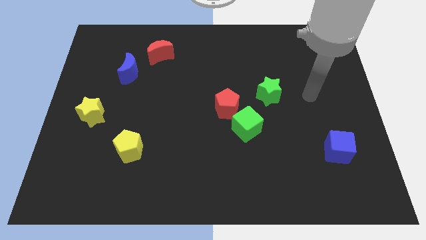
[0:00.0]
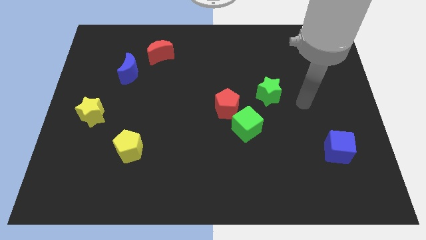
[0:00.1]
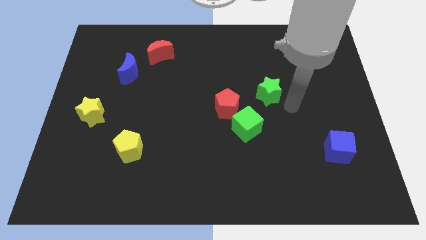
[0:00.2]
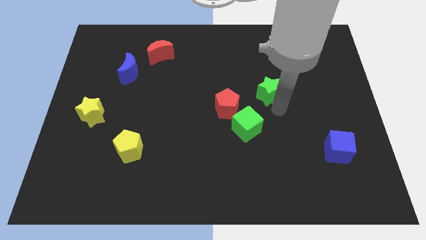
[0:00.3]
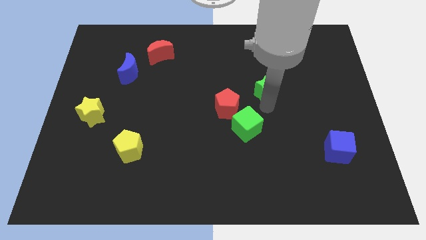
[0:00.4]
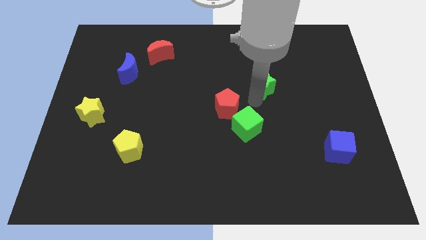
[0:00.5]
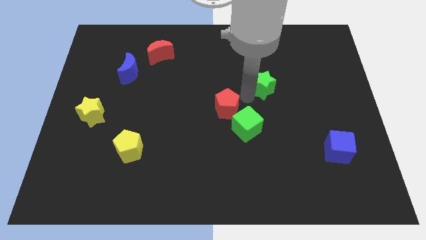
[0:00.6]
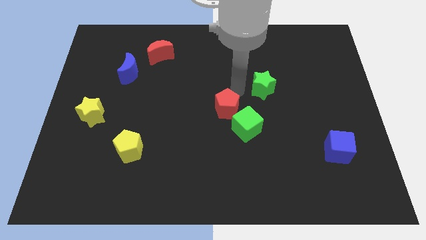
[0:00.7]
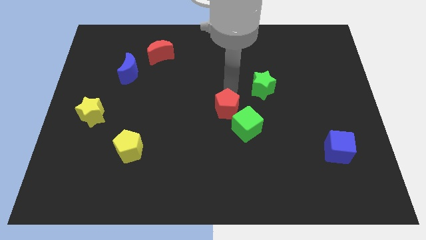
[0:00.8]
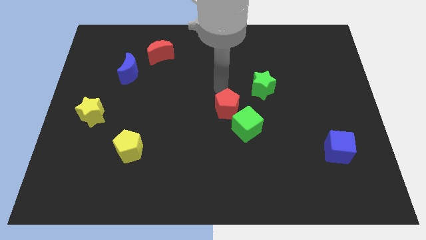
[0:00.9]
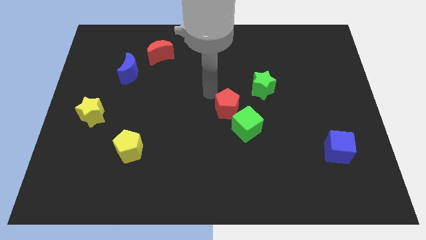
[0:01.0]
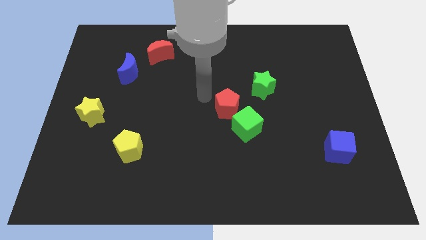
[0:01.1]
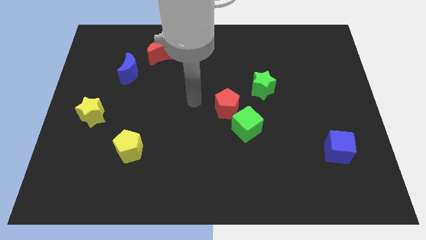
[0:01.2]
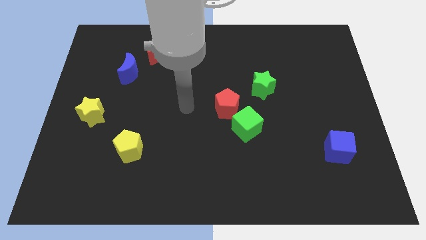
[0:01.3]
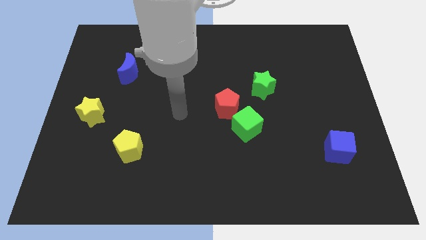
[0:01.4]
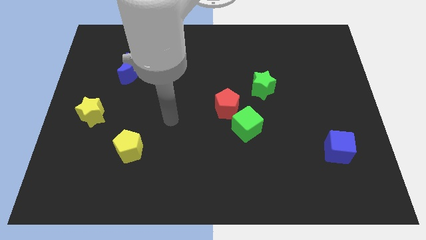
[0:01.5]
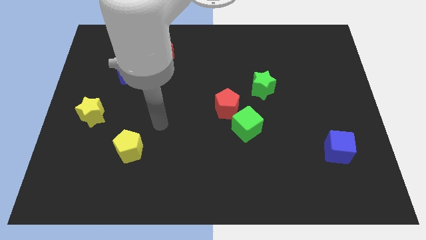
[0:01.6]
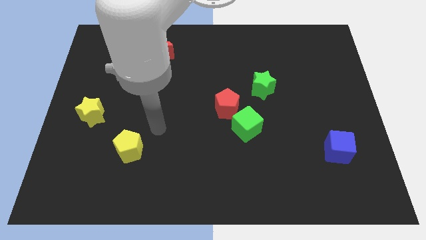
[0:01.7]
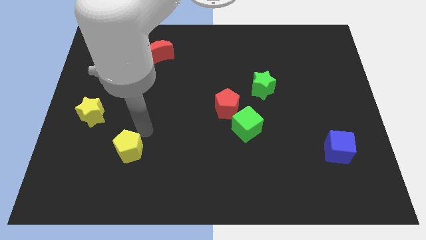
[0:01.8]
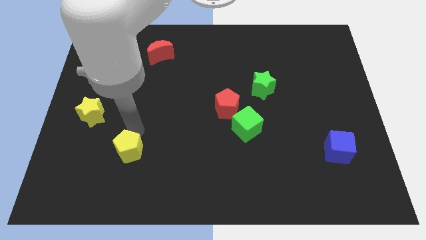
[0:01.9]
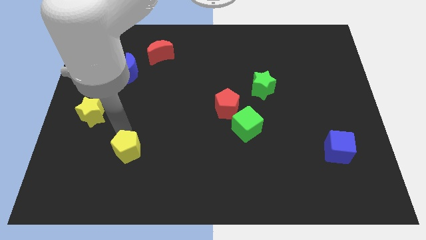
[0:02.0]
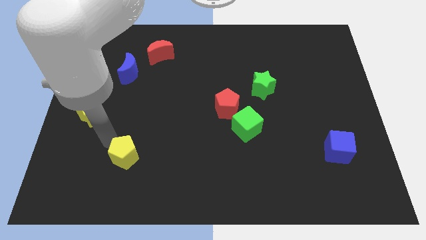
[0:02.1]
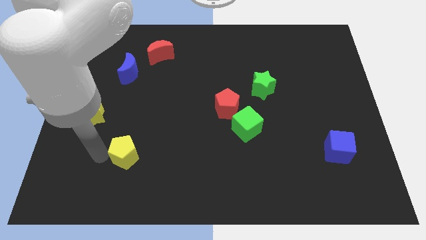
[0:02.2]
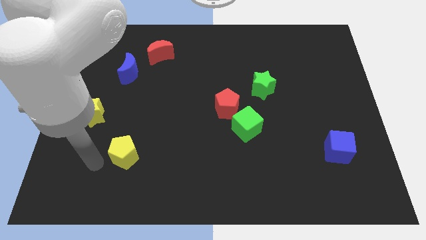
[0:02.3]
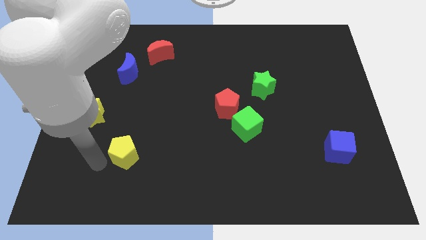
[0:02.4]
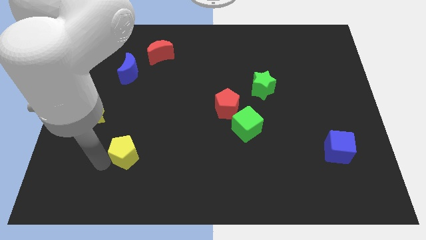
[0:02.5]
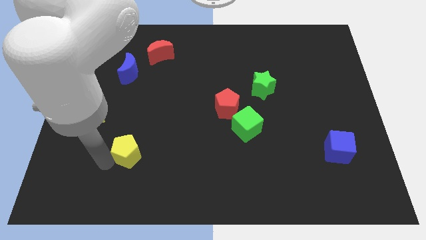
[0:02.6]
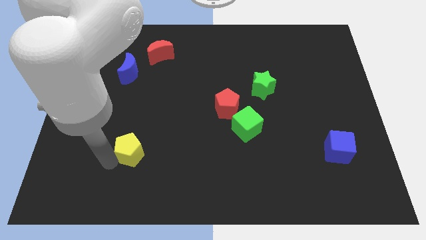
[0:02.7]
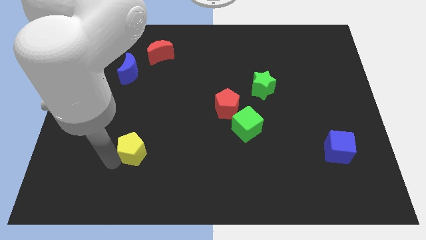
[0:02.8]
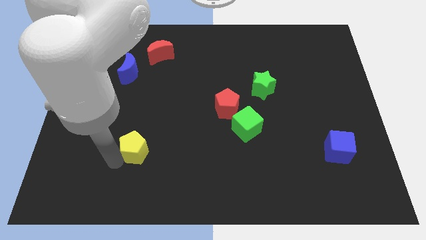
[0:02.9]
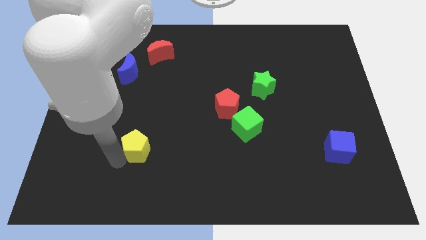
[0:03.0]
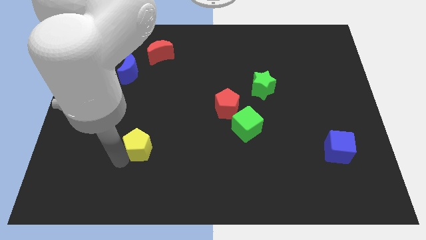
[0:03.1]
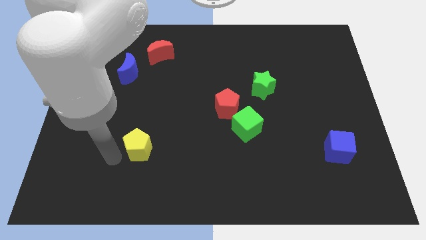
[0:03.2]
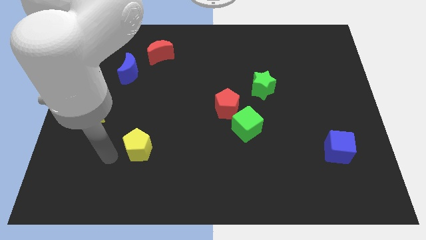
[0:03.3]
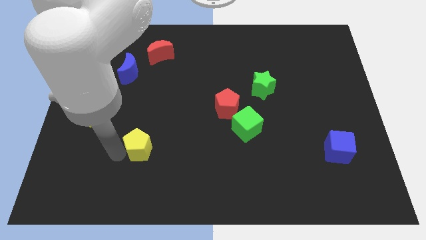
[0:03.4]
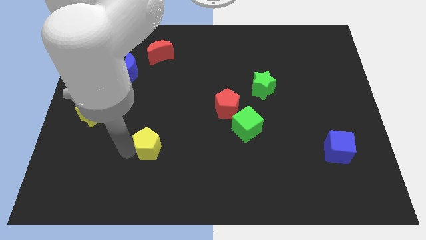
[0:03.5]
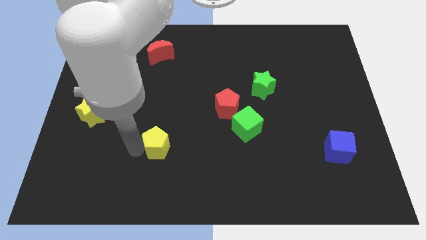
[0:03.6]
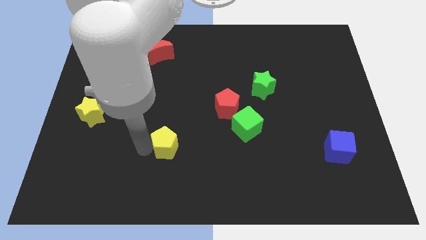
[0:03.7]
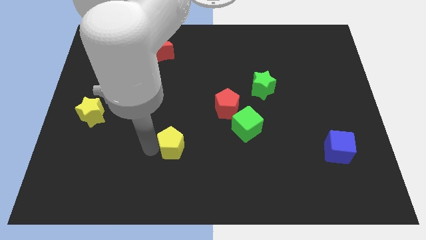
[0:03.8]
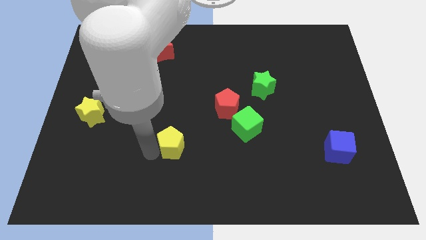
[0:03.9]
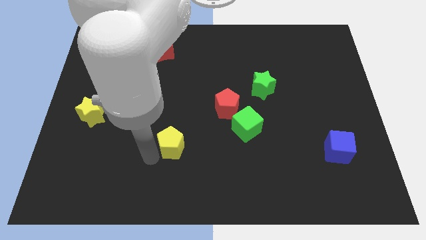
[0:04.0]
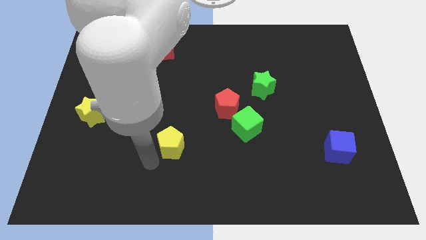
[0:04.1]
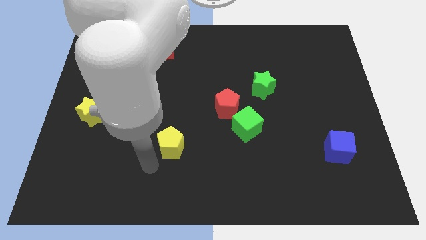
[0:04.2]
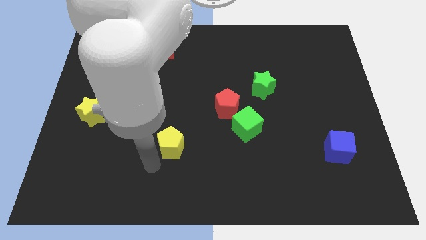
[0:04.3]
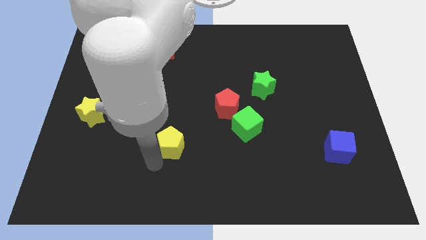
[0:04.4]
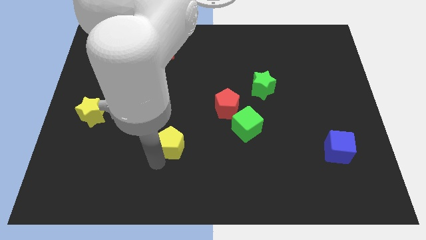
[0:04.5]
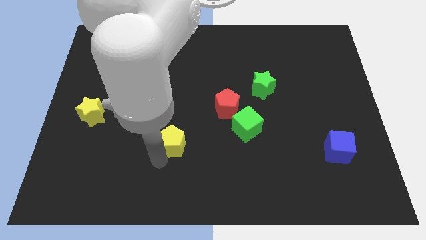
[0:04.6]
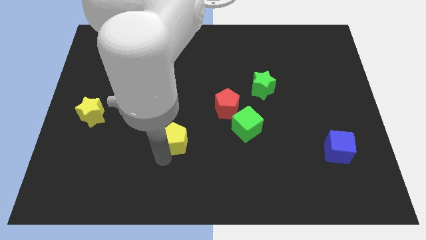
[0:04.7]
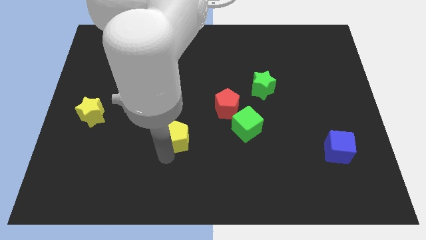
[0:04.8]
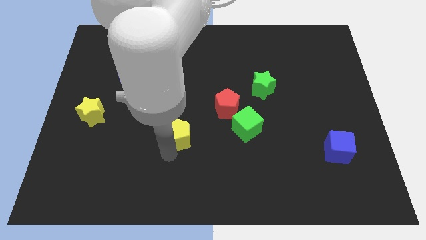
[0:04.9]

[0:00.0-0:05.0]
push the yellow pentagon to the left of the green cube

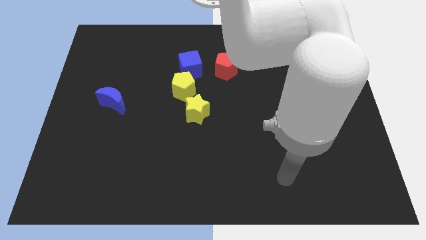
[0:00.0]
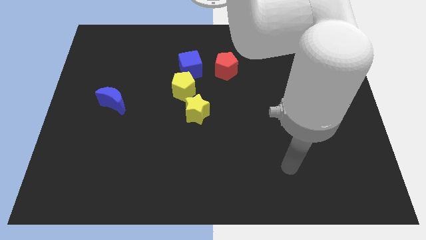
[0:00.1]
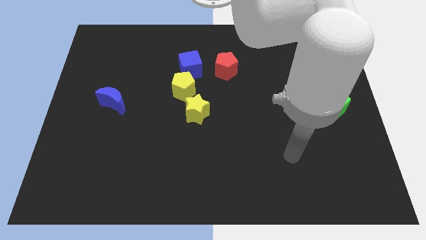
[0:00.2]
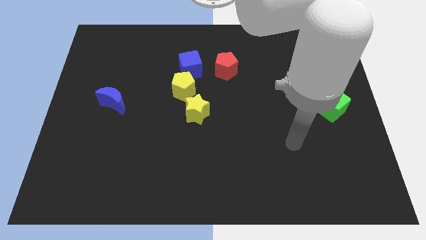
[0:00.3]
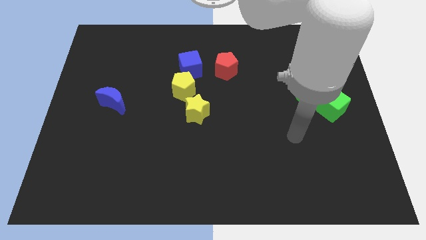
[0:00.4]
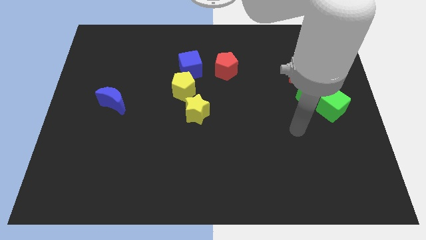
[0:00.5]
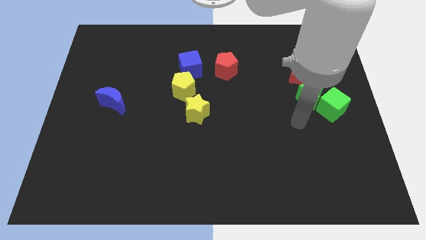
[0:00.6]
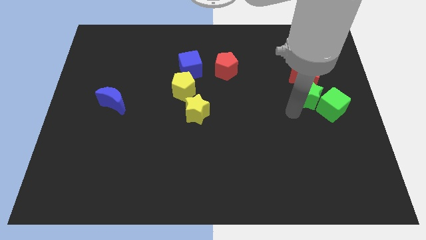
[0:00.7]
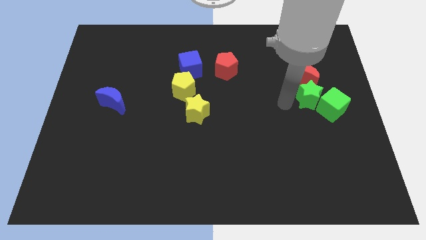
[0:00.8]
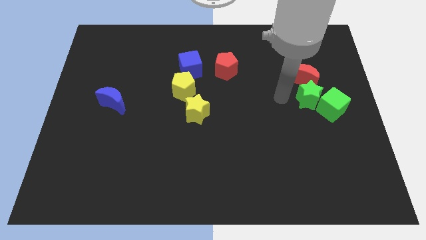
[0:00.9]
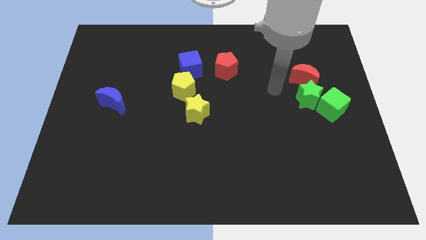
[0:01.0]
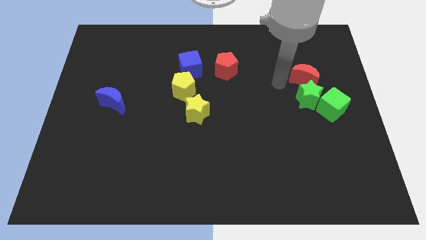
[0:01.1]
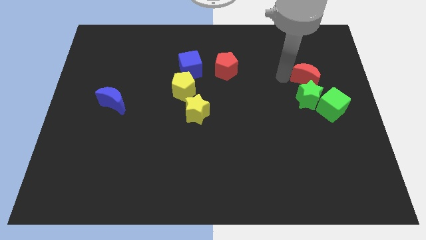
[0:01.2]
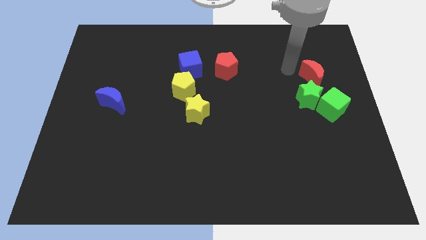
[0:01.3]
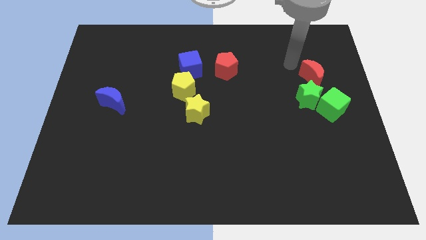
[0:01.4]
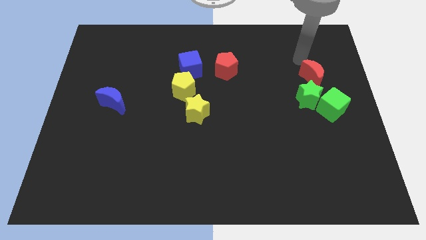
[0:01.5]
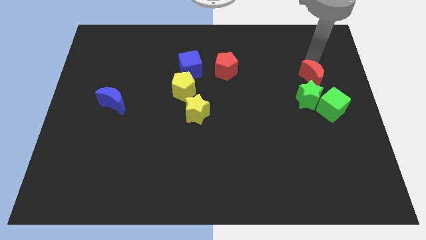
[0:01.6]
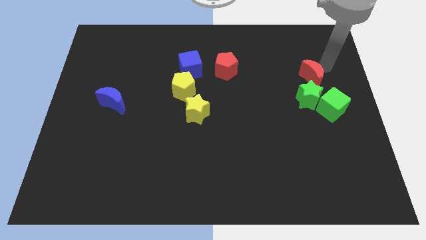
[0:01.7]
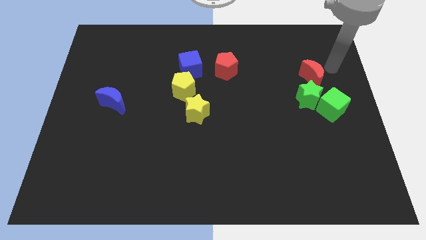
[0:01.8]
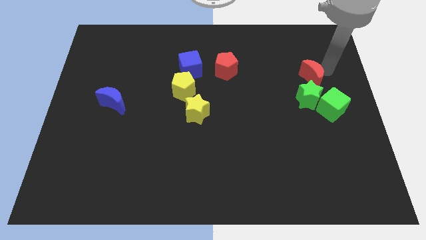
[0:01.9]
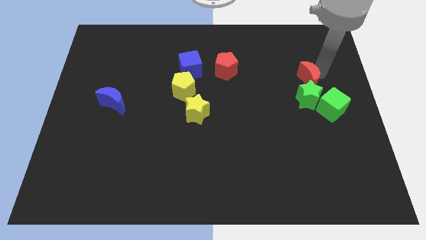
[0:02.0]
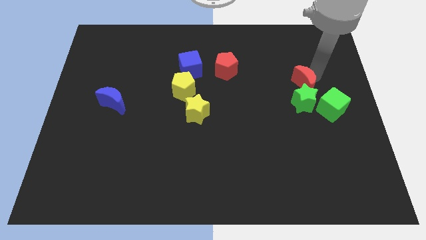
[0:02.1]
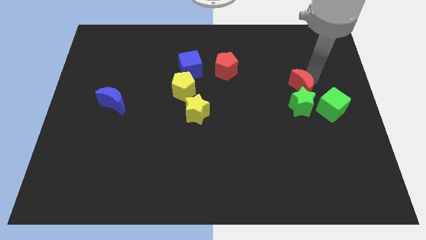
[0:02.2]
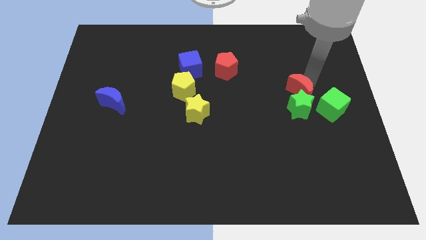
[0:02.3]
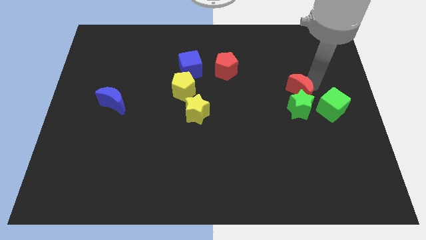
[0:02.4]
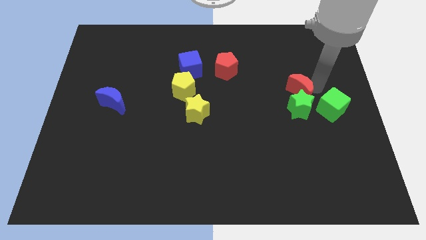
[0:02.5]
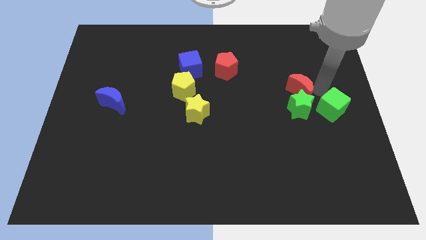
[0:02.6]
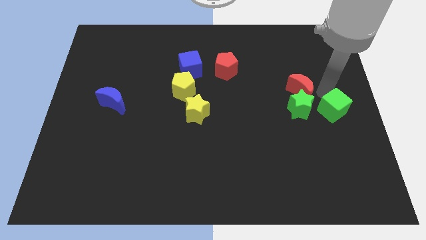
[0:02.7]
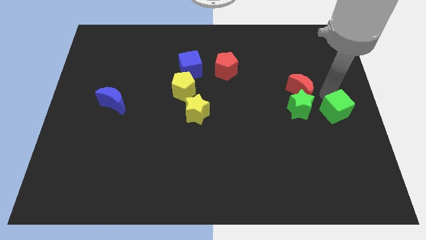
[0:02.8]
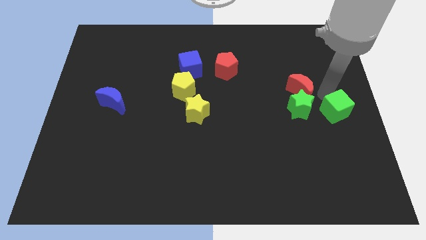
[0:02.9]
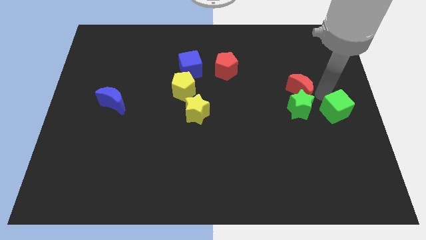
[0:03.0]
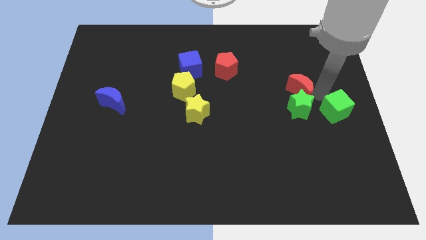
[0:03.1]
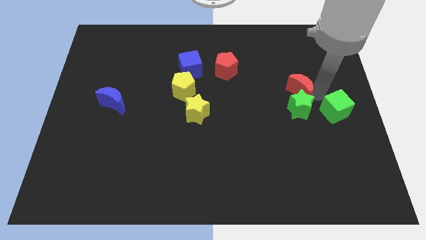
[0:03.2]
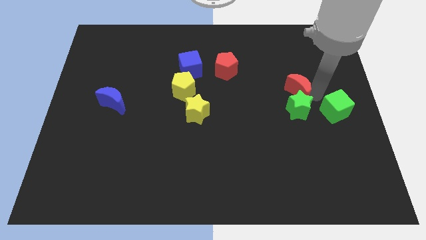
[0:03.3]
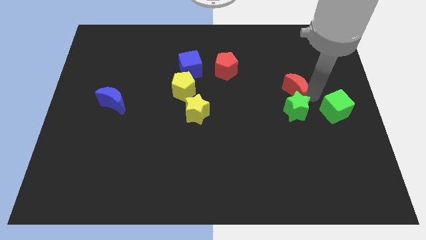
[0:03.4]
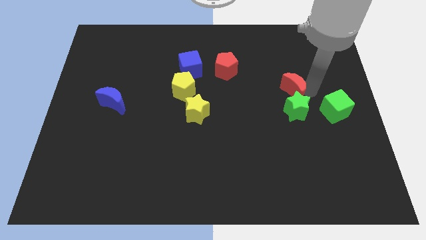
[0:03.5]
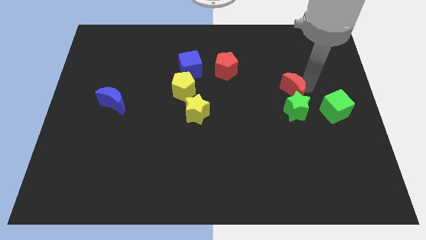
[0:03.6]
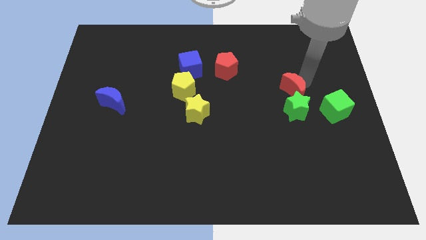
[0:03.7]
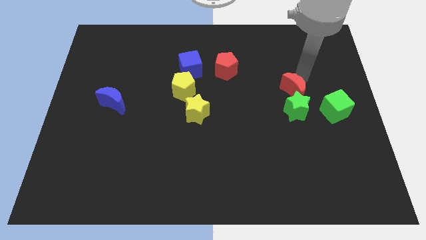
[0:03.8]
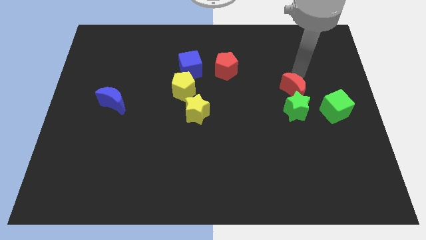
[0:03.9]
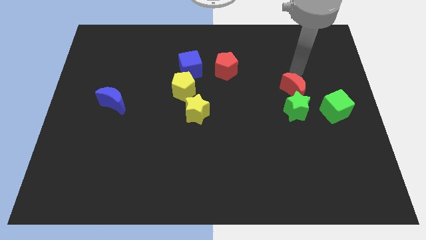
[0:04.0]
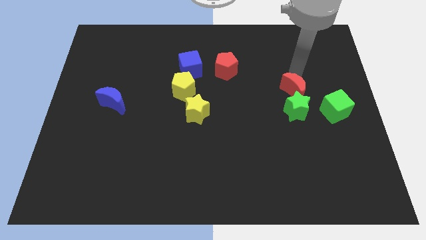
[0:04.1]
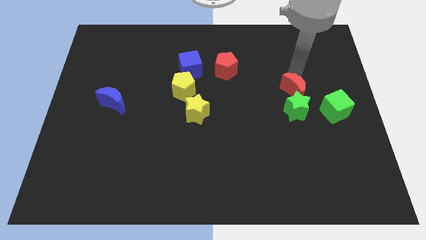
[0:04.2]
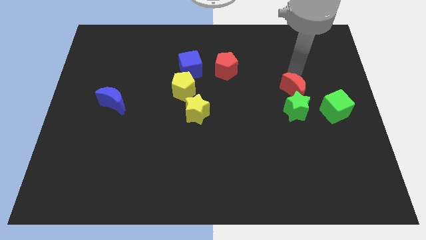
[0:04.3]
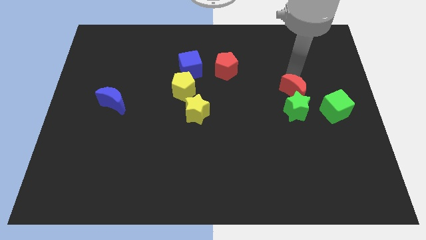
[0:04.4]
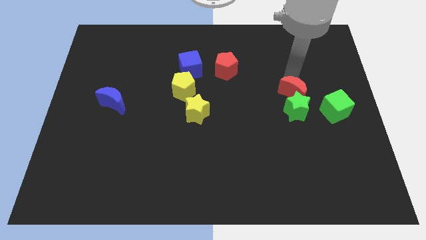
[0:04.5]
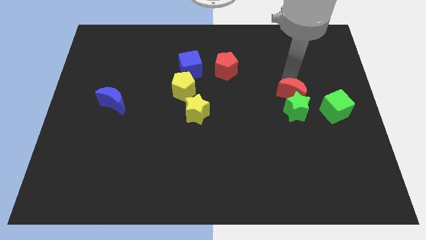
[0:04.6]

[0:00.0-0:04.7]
put the red moon to the left side of the green cube
